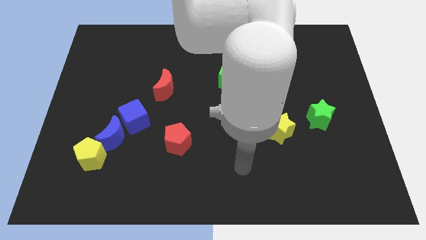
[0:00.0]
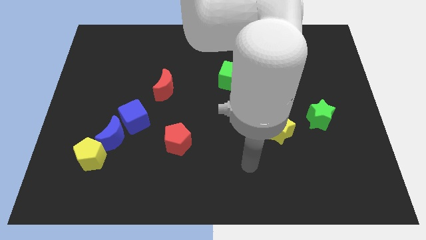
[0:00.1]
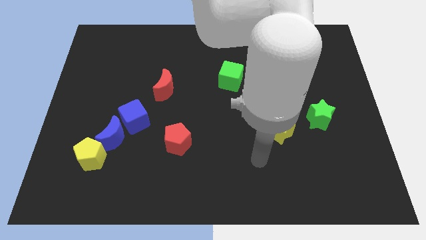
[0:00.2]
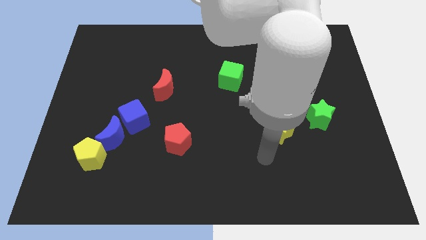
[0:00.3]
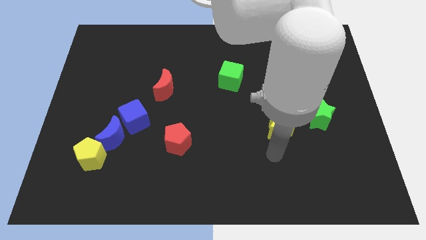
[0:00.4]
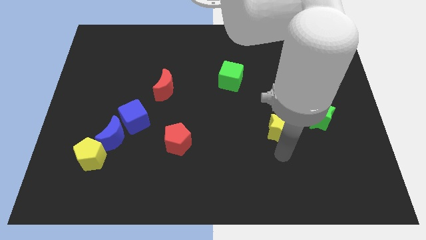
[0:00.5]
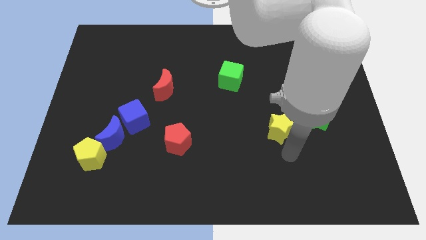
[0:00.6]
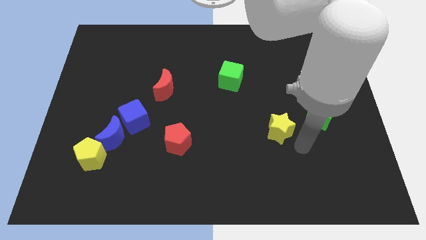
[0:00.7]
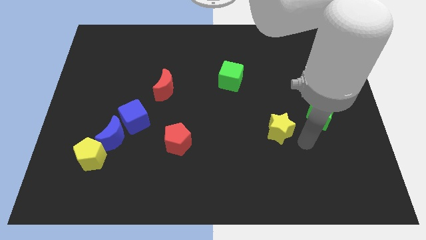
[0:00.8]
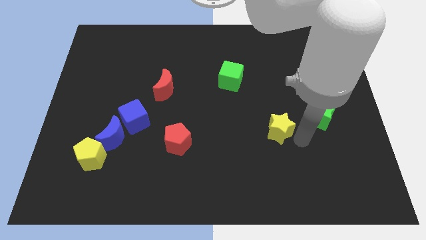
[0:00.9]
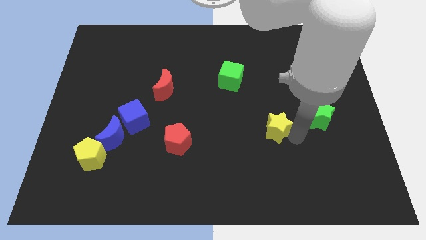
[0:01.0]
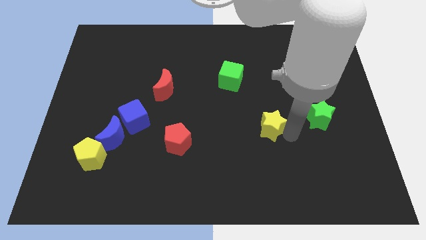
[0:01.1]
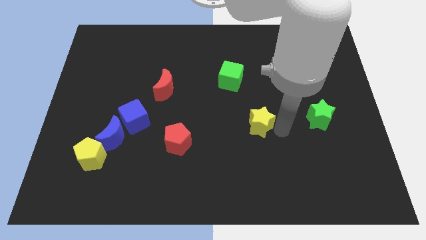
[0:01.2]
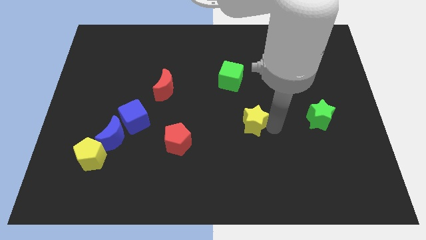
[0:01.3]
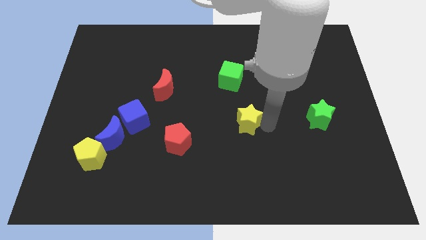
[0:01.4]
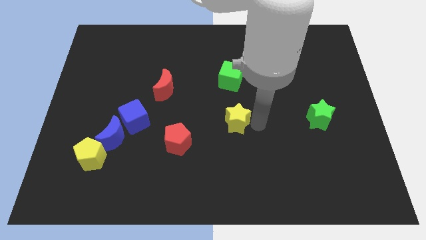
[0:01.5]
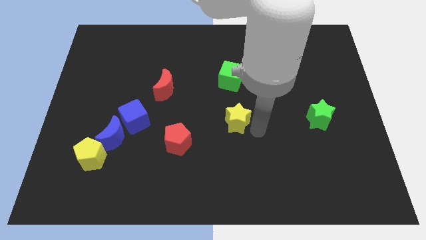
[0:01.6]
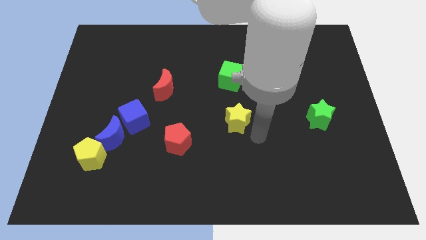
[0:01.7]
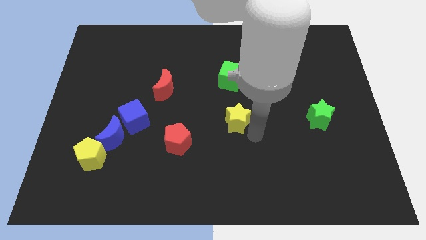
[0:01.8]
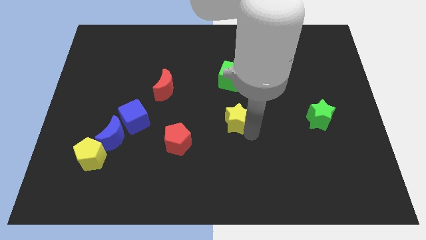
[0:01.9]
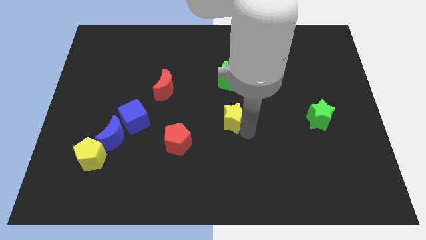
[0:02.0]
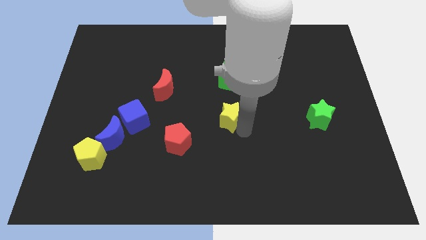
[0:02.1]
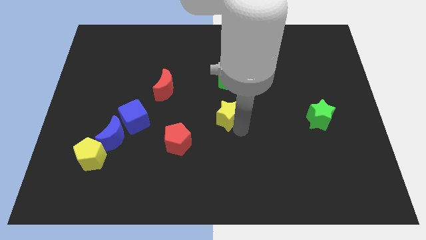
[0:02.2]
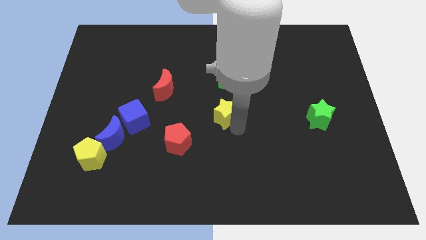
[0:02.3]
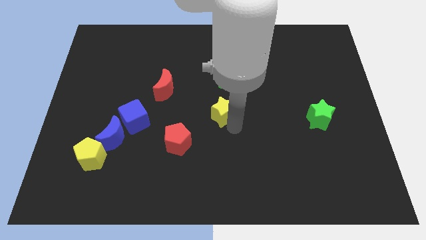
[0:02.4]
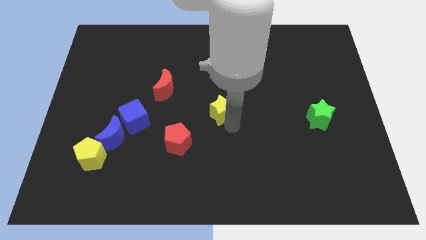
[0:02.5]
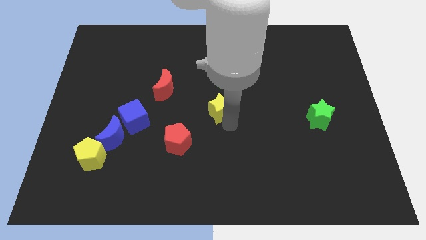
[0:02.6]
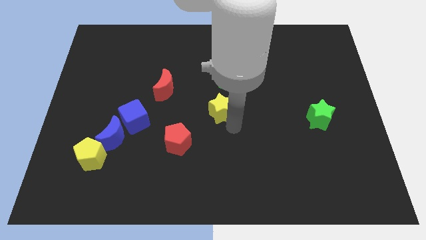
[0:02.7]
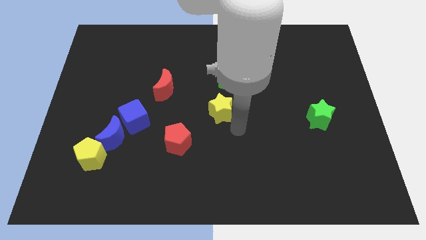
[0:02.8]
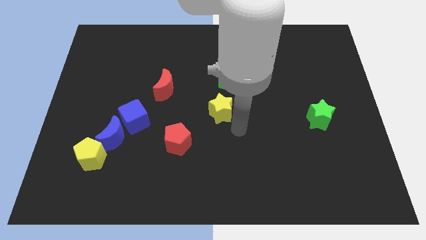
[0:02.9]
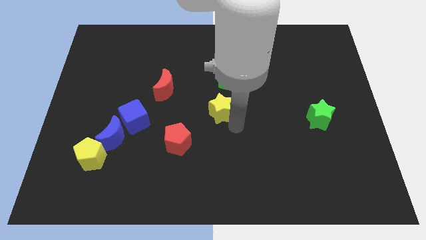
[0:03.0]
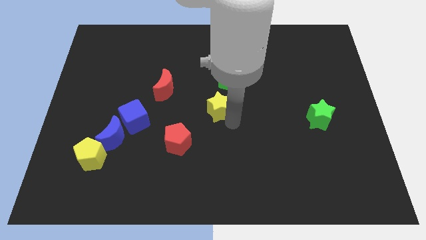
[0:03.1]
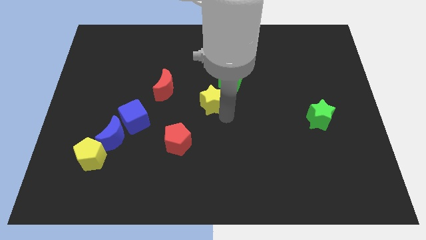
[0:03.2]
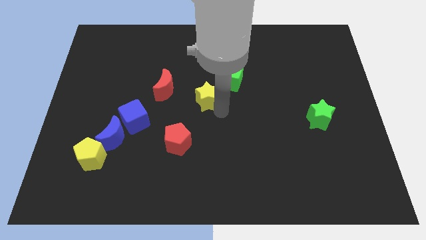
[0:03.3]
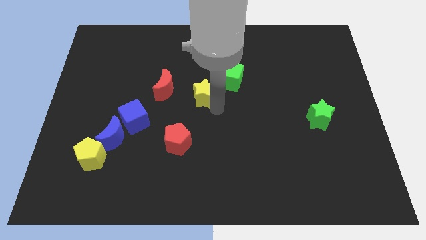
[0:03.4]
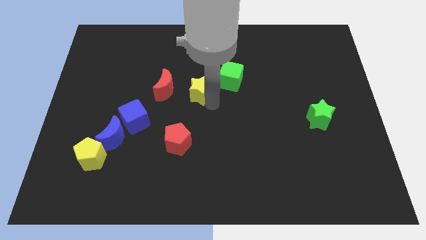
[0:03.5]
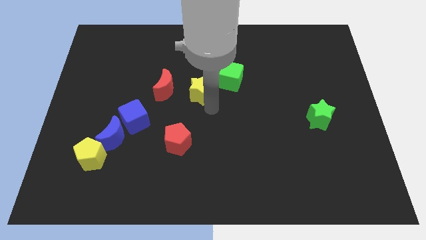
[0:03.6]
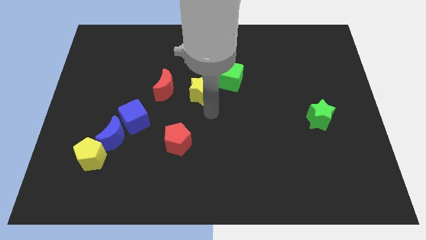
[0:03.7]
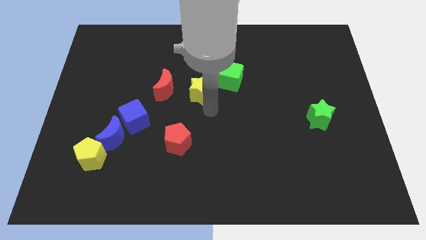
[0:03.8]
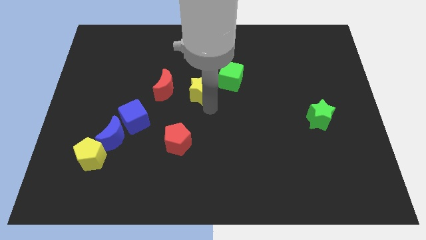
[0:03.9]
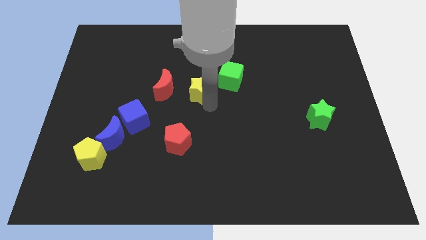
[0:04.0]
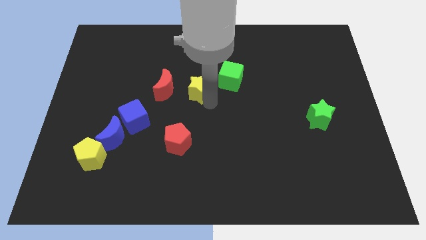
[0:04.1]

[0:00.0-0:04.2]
slide the yellow star diagonally upwards and to the left

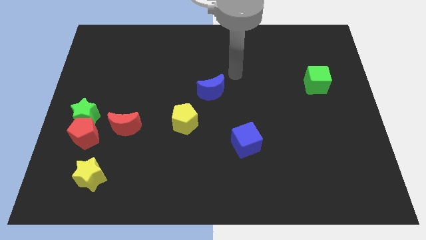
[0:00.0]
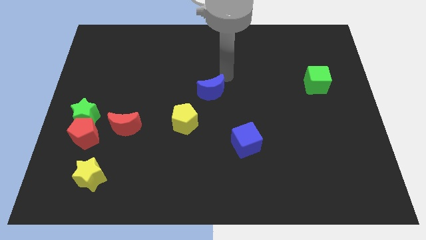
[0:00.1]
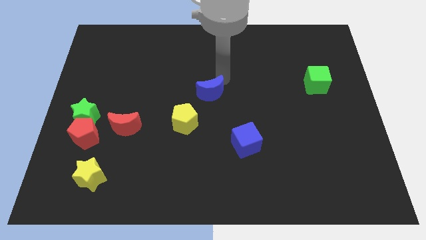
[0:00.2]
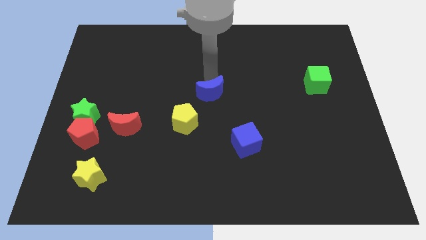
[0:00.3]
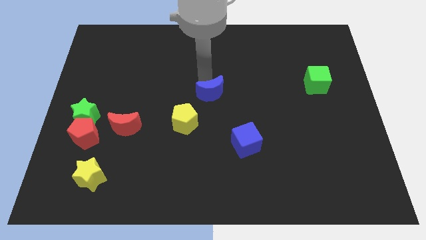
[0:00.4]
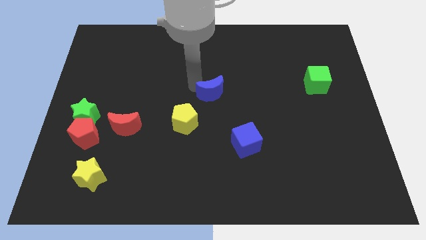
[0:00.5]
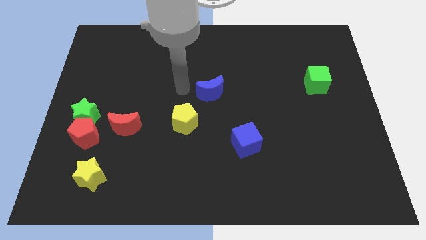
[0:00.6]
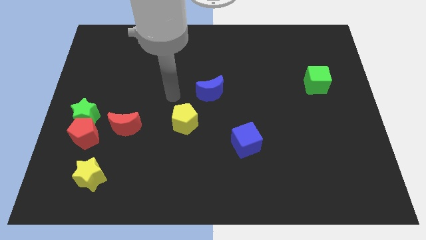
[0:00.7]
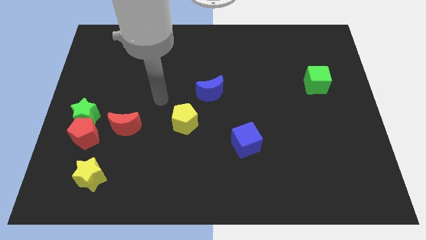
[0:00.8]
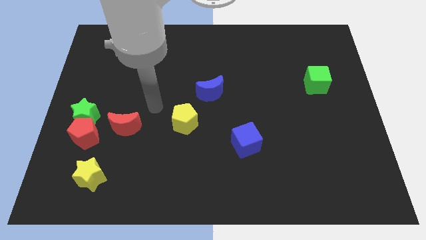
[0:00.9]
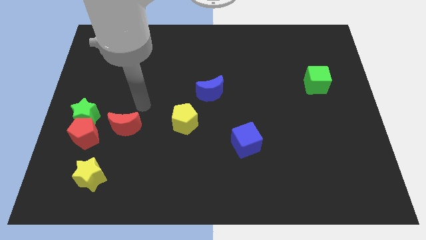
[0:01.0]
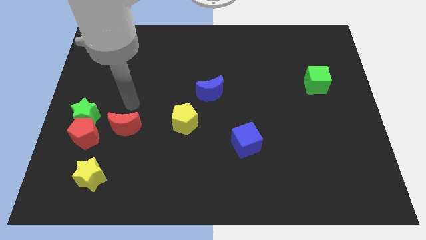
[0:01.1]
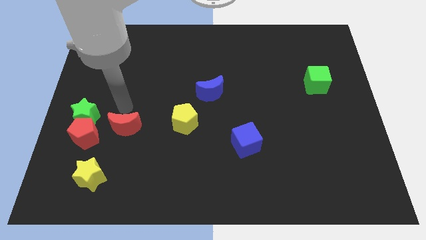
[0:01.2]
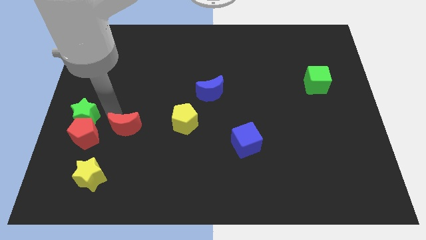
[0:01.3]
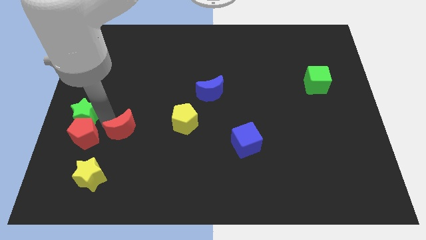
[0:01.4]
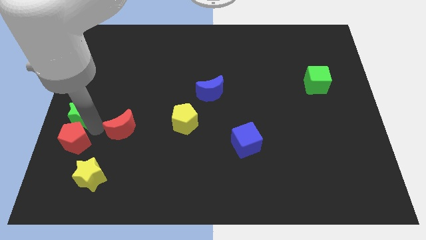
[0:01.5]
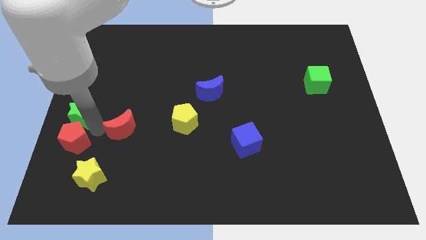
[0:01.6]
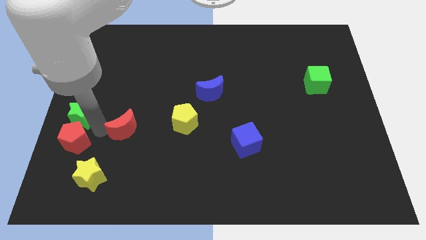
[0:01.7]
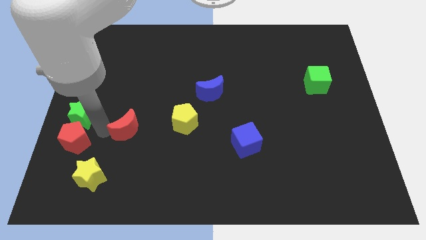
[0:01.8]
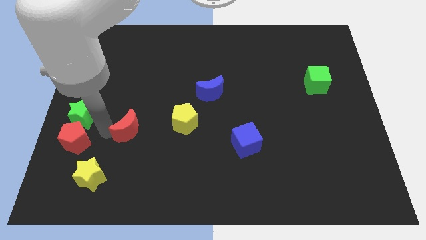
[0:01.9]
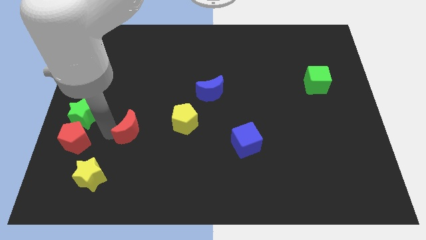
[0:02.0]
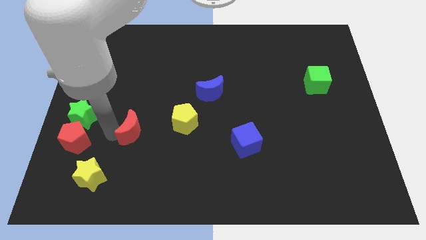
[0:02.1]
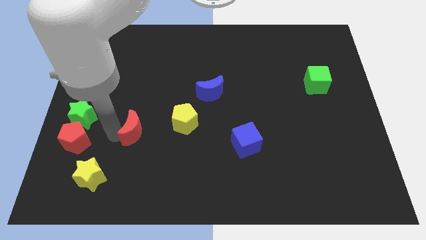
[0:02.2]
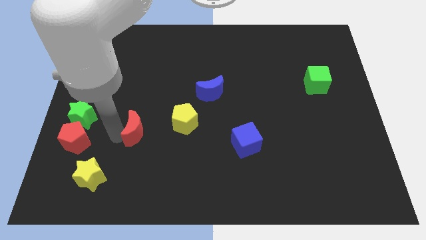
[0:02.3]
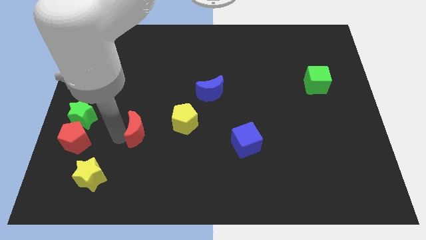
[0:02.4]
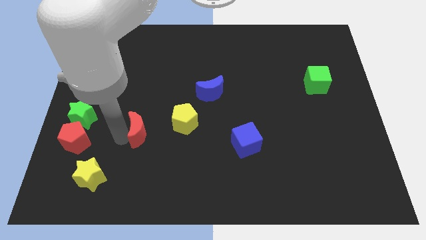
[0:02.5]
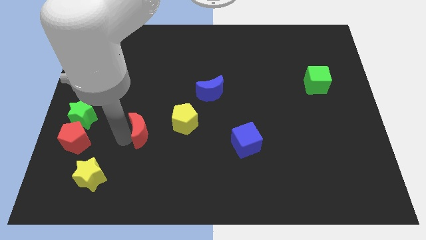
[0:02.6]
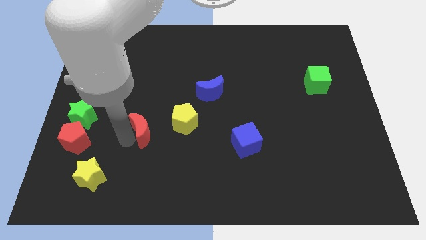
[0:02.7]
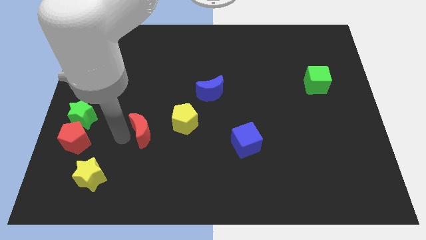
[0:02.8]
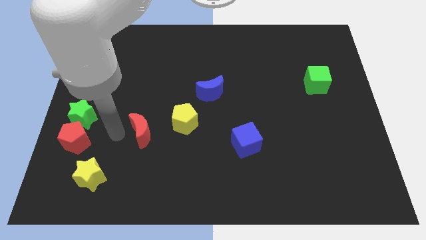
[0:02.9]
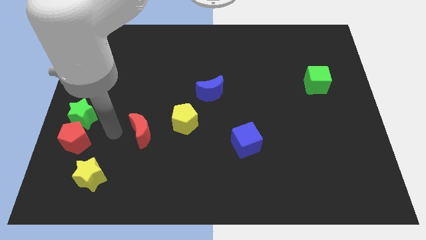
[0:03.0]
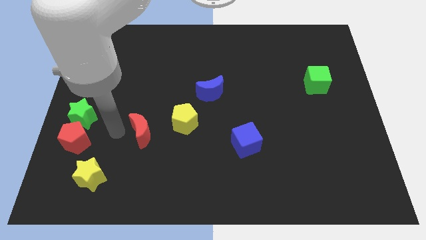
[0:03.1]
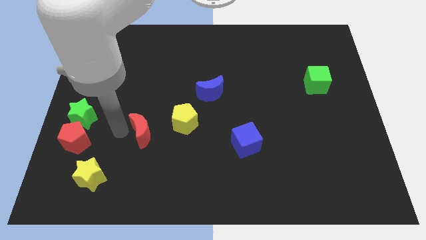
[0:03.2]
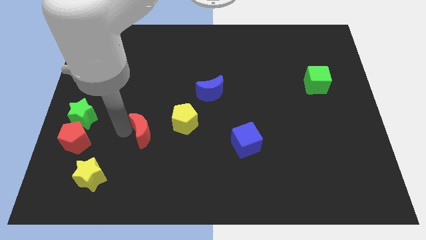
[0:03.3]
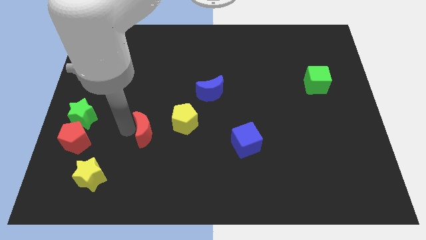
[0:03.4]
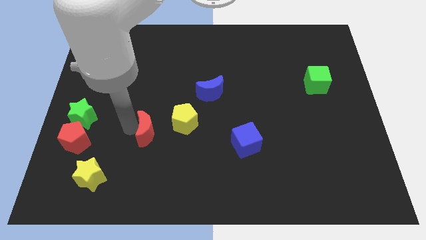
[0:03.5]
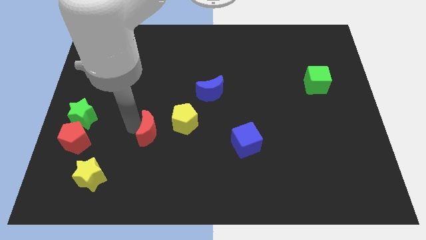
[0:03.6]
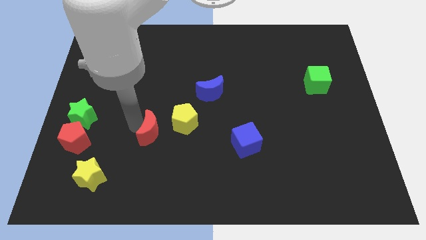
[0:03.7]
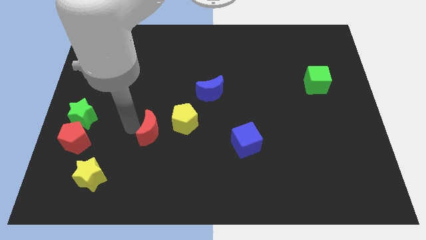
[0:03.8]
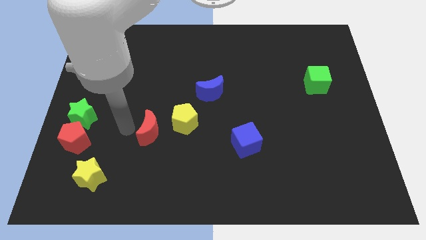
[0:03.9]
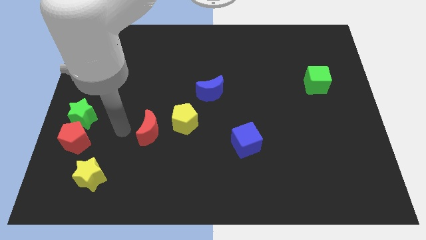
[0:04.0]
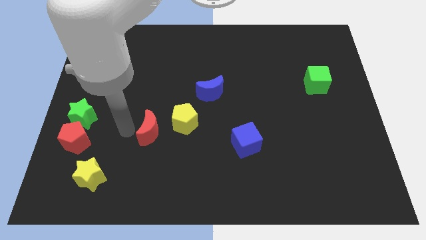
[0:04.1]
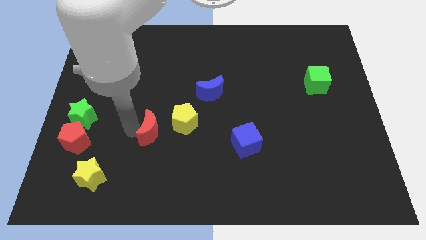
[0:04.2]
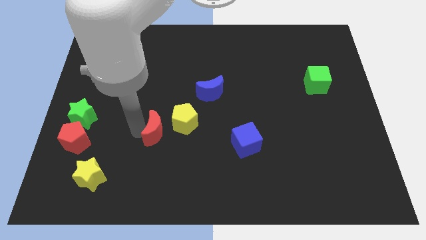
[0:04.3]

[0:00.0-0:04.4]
slightly push the red moon to the right
